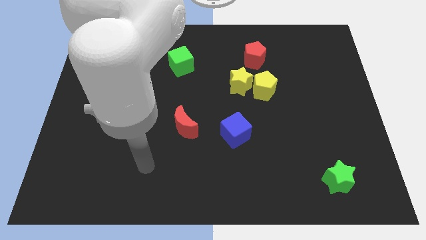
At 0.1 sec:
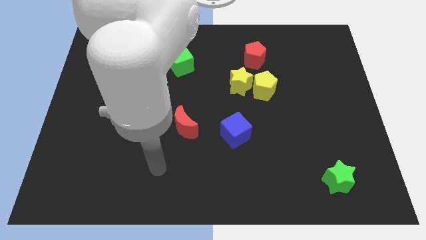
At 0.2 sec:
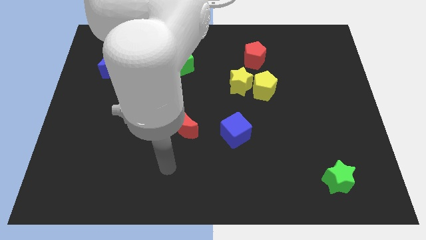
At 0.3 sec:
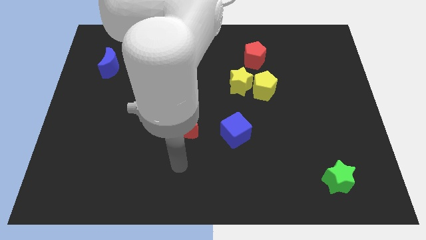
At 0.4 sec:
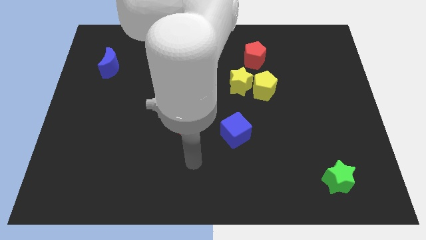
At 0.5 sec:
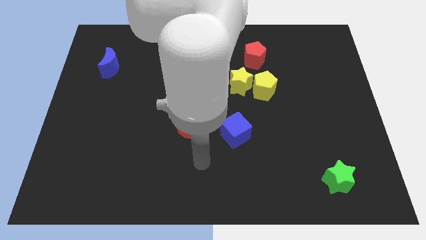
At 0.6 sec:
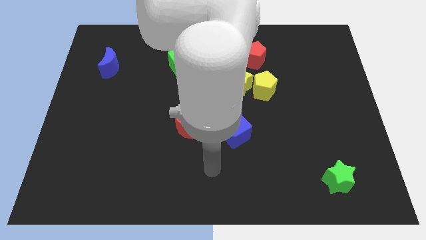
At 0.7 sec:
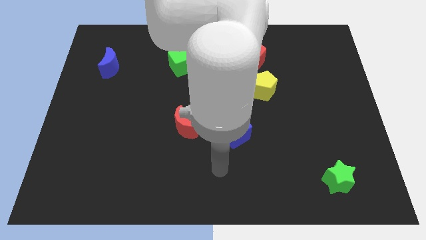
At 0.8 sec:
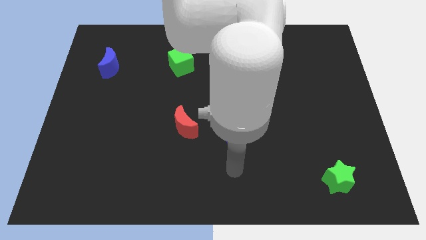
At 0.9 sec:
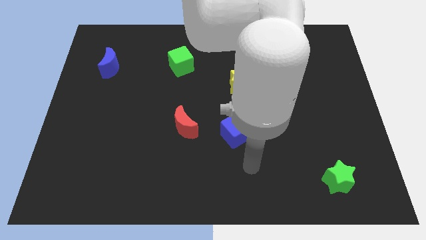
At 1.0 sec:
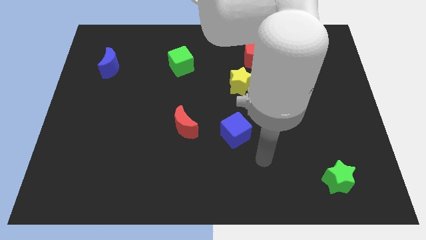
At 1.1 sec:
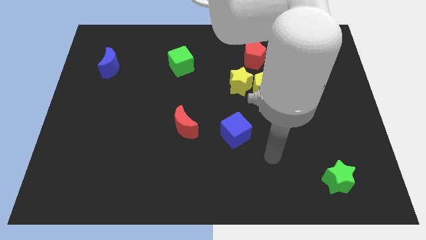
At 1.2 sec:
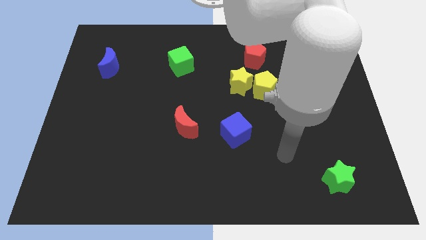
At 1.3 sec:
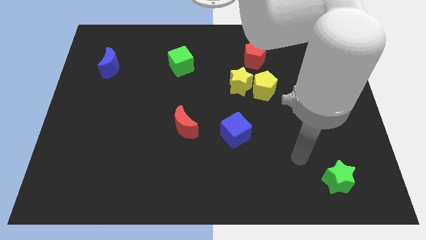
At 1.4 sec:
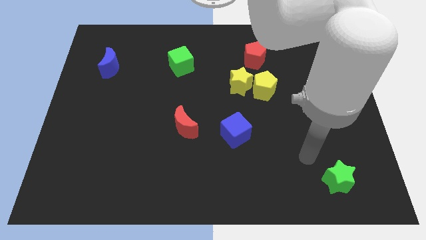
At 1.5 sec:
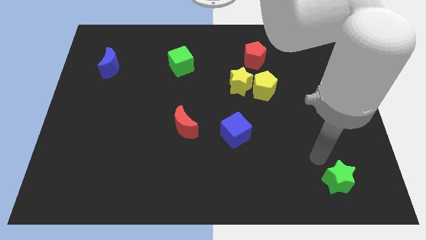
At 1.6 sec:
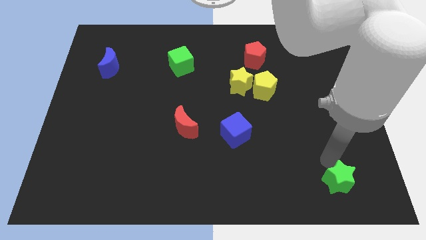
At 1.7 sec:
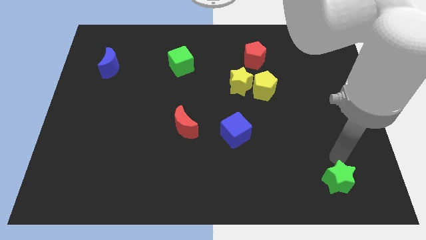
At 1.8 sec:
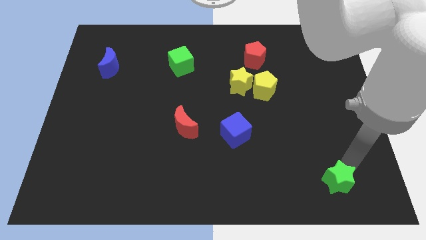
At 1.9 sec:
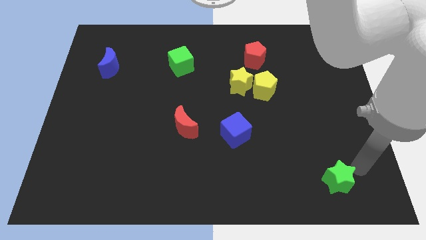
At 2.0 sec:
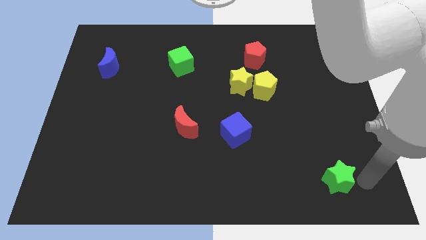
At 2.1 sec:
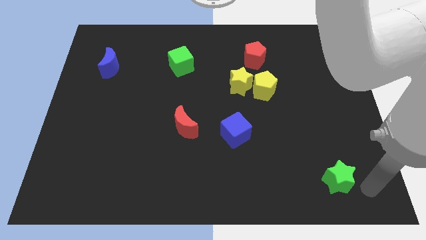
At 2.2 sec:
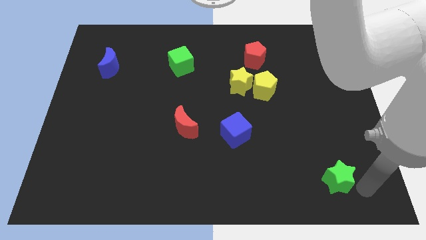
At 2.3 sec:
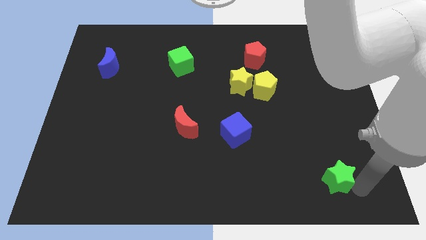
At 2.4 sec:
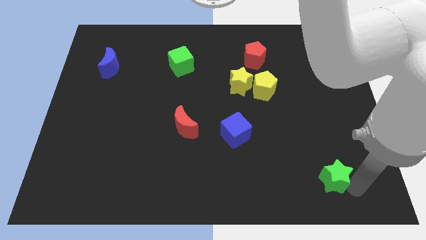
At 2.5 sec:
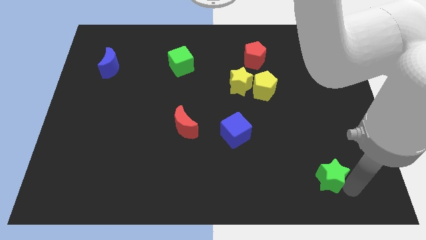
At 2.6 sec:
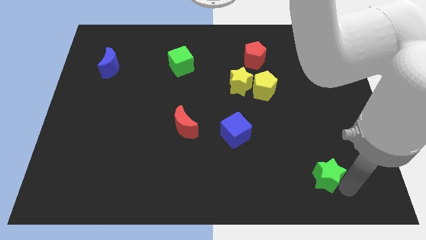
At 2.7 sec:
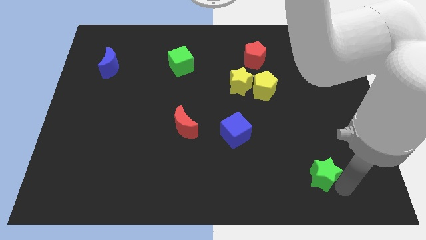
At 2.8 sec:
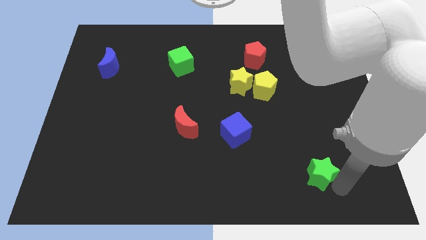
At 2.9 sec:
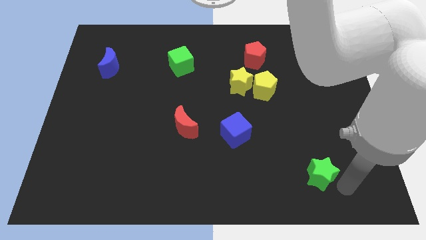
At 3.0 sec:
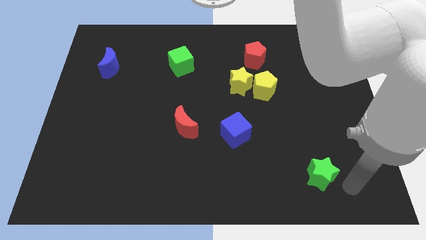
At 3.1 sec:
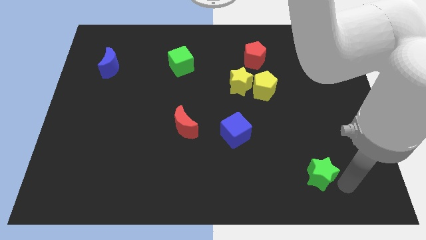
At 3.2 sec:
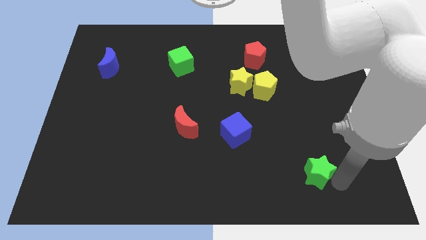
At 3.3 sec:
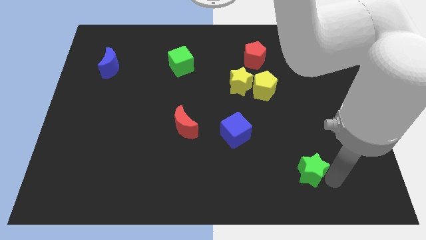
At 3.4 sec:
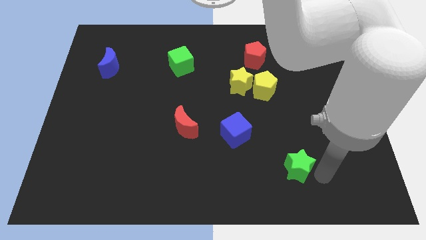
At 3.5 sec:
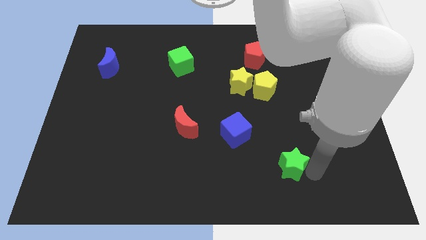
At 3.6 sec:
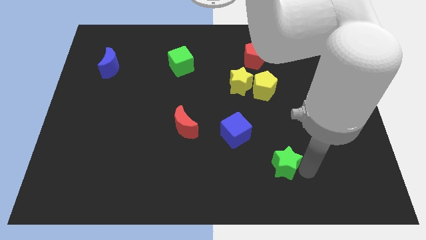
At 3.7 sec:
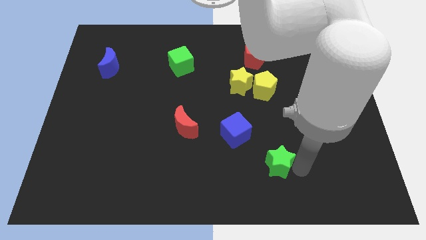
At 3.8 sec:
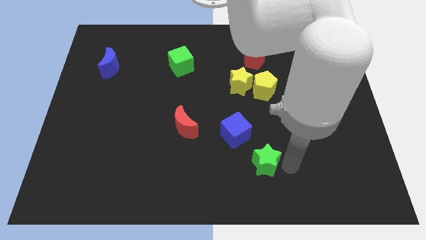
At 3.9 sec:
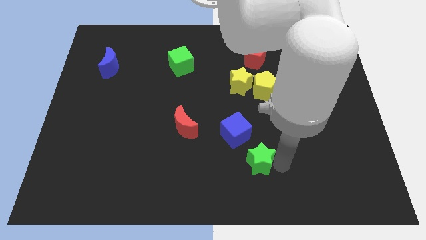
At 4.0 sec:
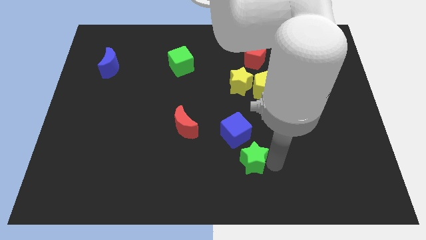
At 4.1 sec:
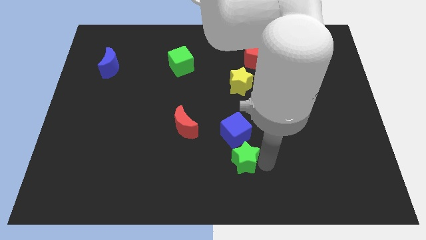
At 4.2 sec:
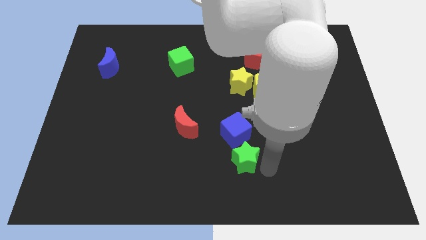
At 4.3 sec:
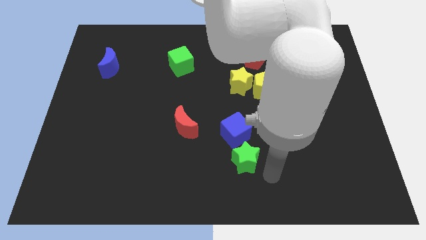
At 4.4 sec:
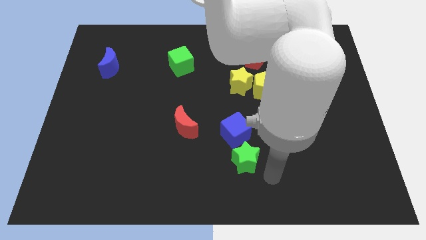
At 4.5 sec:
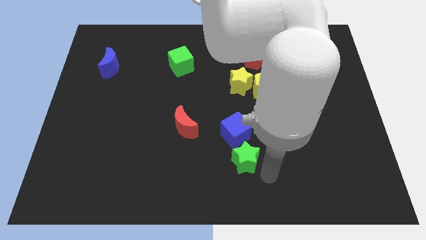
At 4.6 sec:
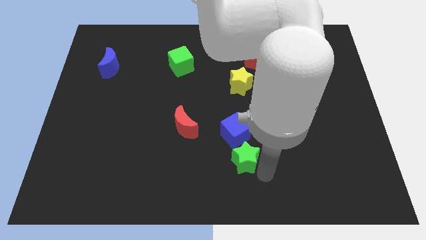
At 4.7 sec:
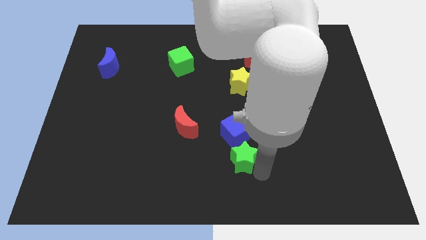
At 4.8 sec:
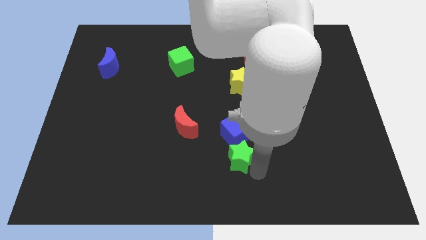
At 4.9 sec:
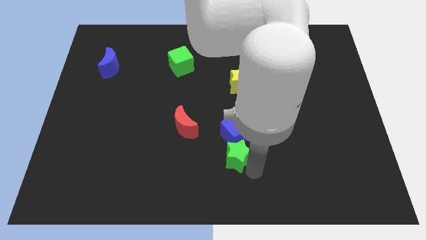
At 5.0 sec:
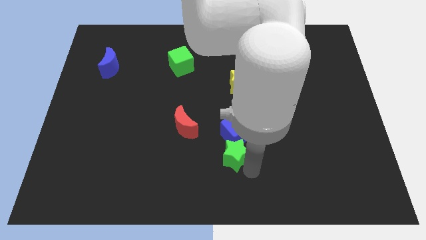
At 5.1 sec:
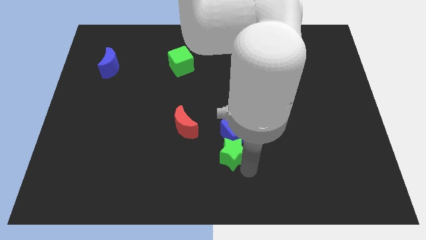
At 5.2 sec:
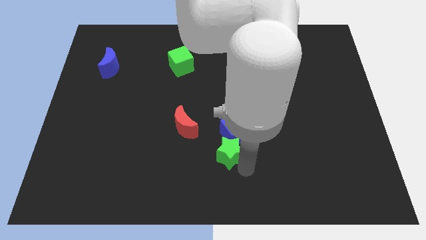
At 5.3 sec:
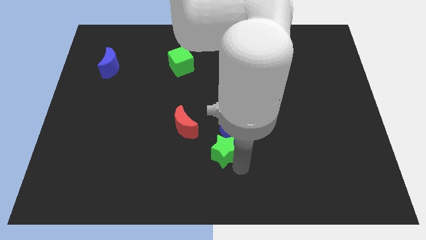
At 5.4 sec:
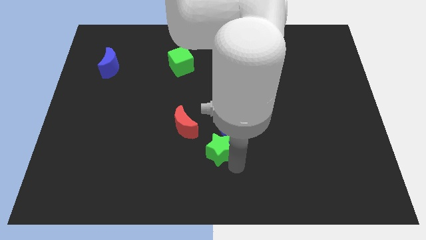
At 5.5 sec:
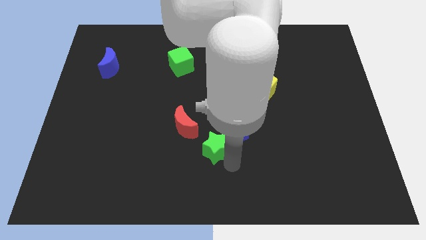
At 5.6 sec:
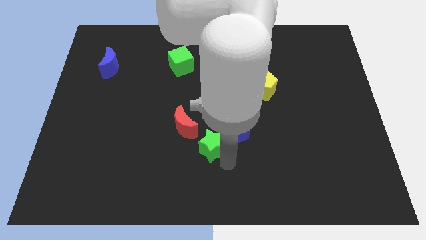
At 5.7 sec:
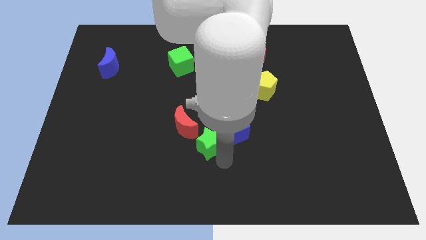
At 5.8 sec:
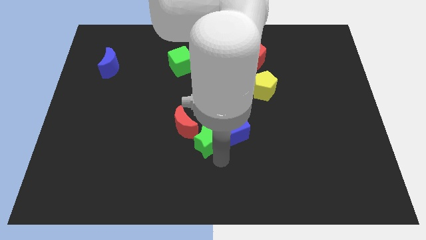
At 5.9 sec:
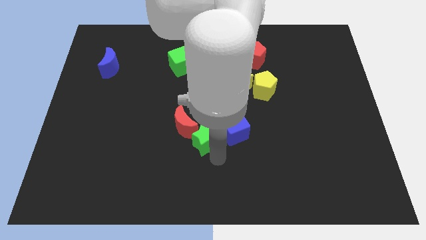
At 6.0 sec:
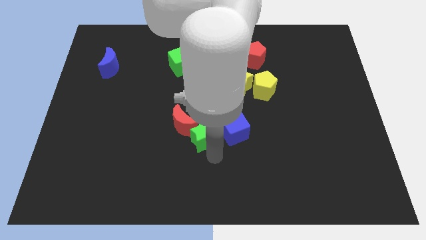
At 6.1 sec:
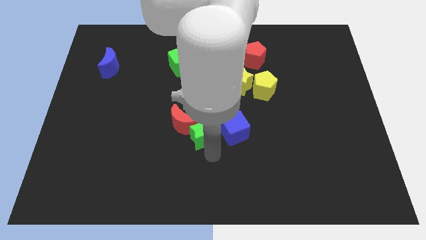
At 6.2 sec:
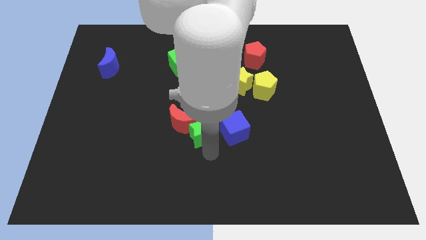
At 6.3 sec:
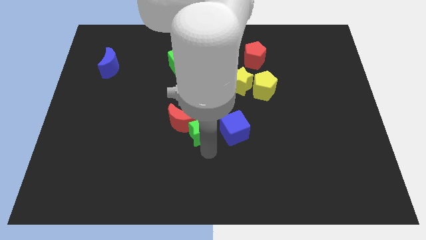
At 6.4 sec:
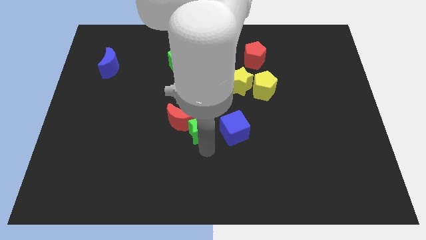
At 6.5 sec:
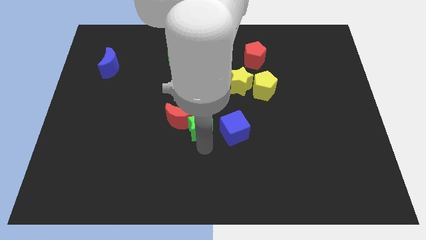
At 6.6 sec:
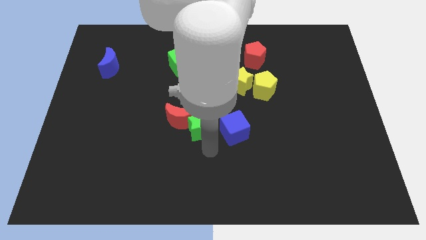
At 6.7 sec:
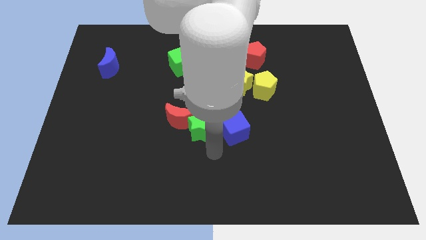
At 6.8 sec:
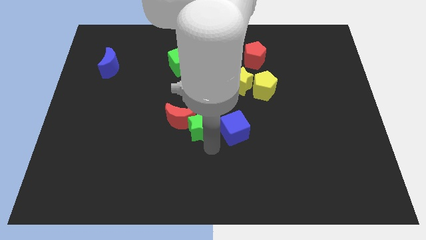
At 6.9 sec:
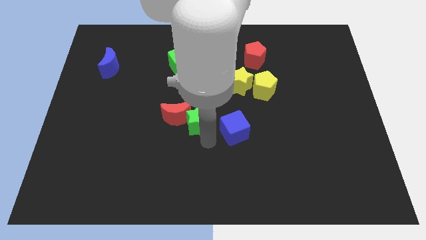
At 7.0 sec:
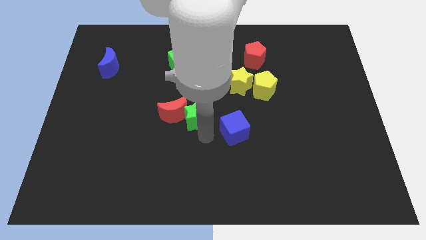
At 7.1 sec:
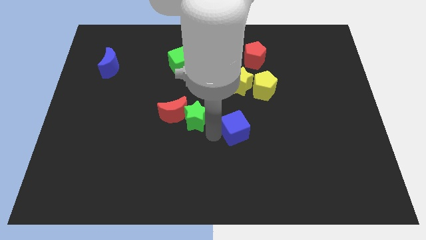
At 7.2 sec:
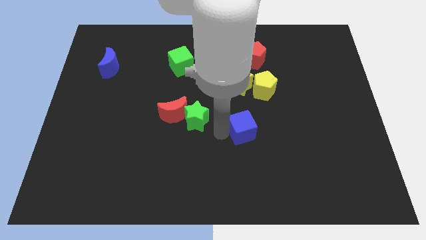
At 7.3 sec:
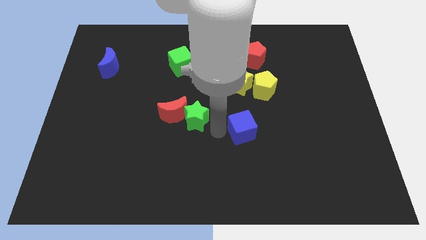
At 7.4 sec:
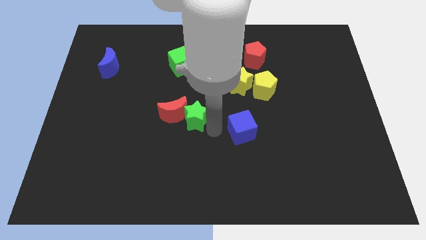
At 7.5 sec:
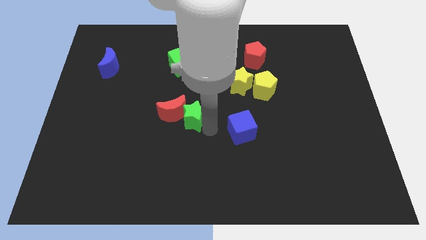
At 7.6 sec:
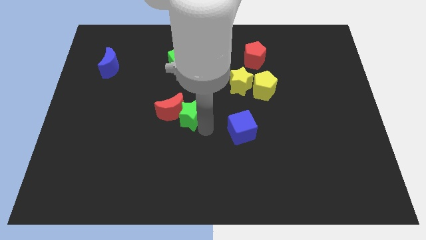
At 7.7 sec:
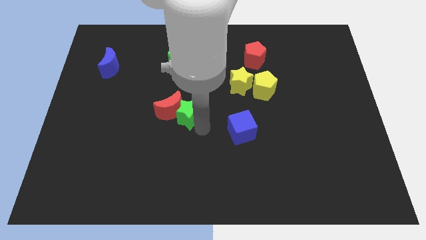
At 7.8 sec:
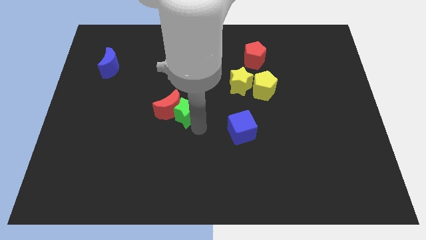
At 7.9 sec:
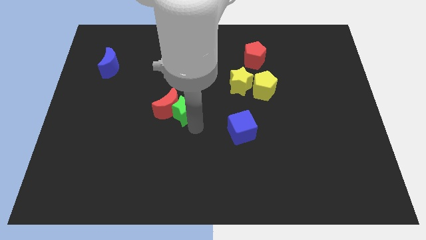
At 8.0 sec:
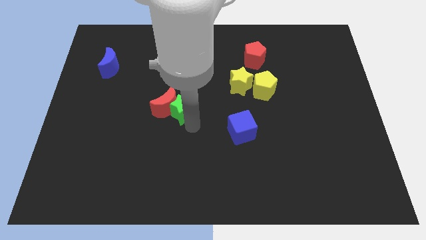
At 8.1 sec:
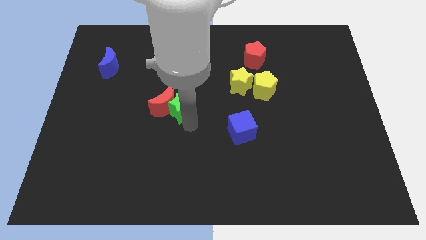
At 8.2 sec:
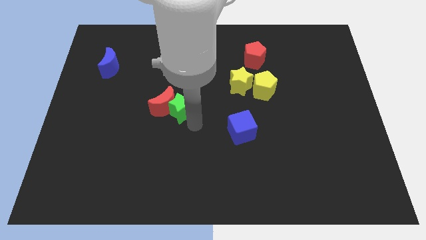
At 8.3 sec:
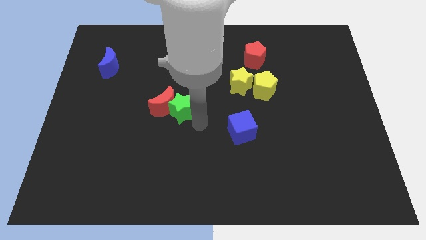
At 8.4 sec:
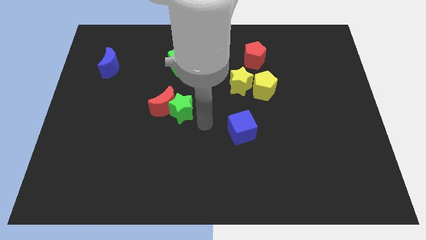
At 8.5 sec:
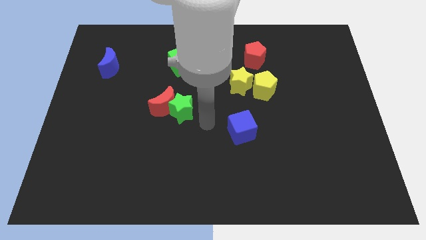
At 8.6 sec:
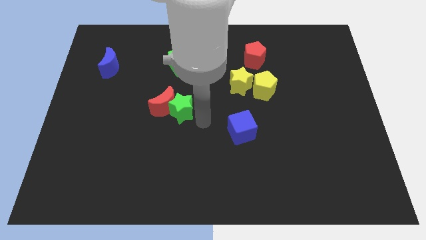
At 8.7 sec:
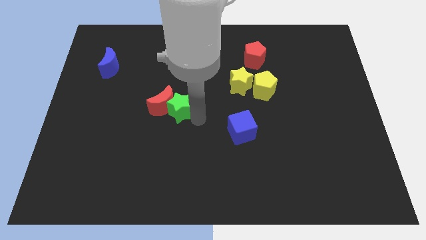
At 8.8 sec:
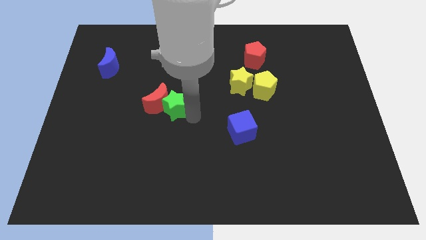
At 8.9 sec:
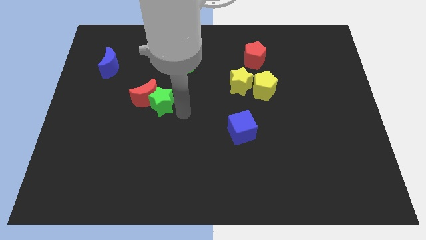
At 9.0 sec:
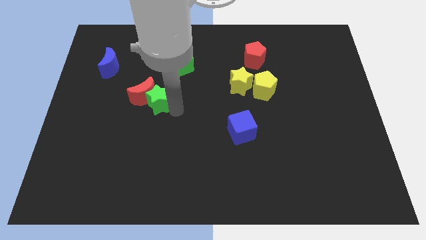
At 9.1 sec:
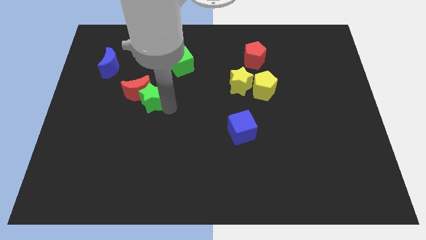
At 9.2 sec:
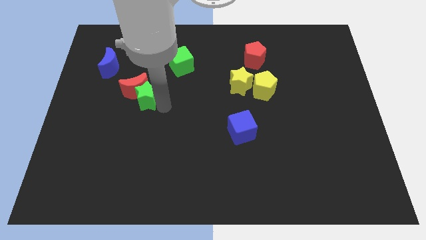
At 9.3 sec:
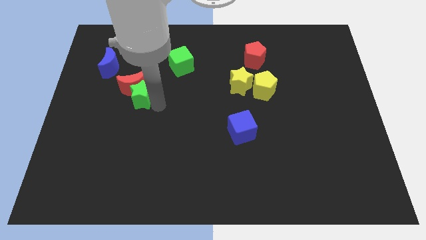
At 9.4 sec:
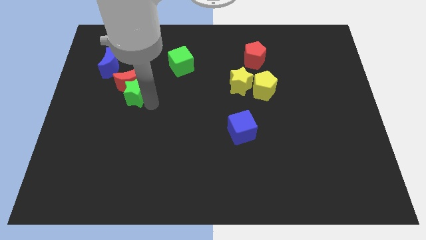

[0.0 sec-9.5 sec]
put the green star diagonally down and to the right of the blue moon
